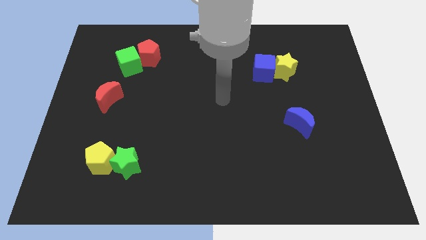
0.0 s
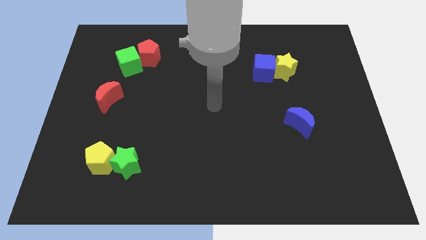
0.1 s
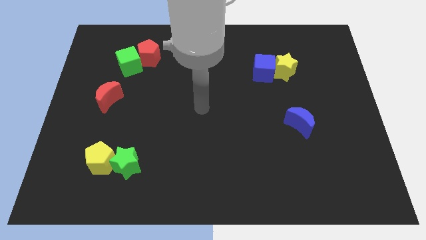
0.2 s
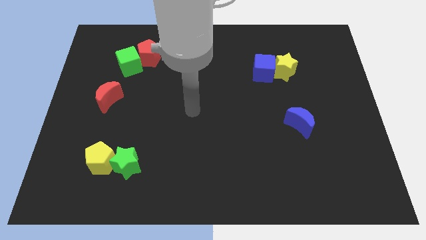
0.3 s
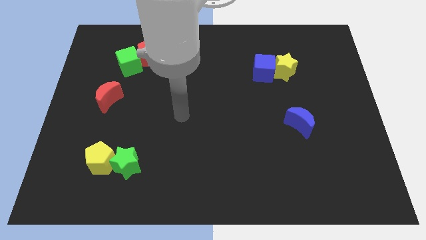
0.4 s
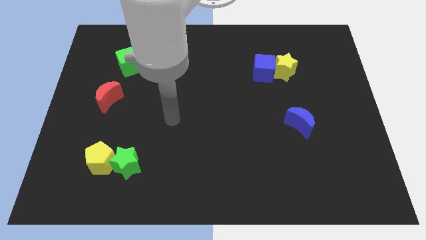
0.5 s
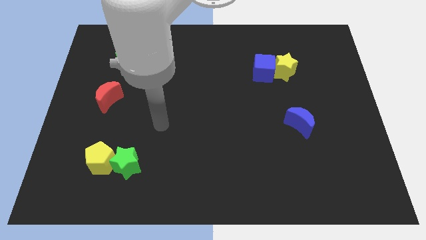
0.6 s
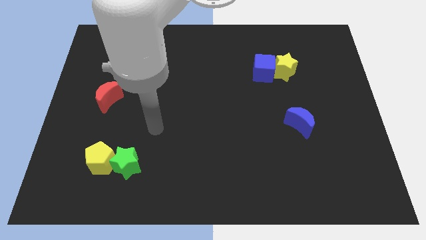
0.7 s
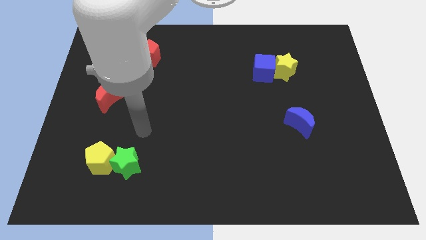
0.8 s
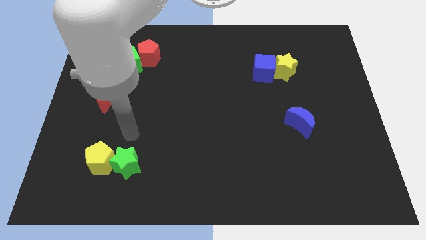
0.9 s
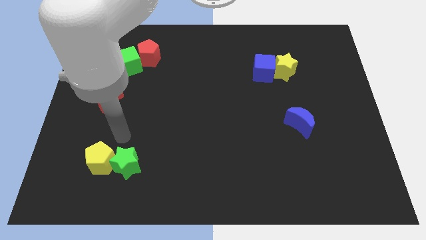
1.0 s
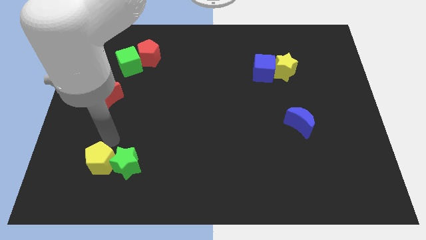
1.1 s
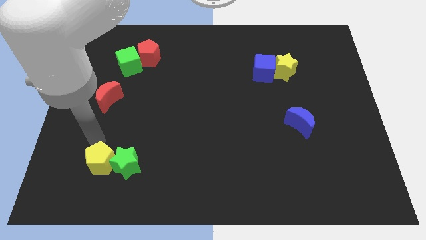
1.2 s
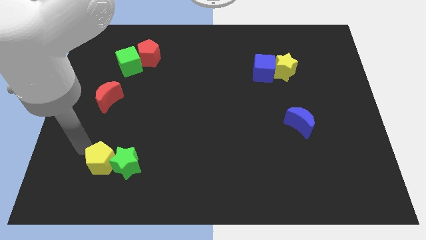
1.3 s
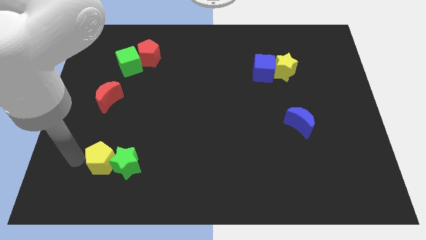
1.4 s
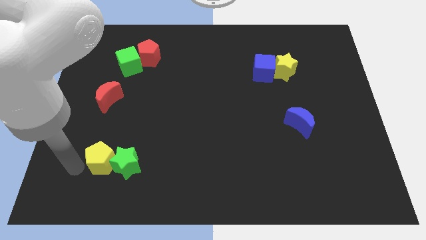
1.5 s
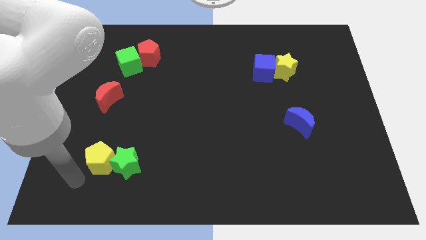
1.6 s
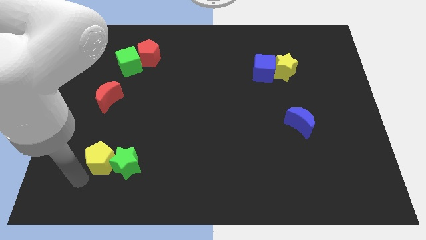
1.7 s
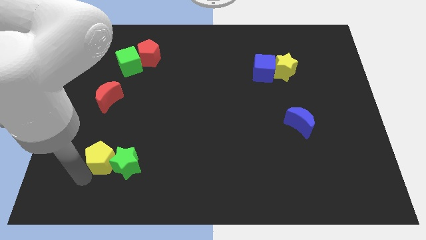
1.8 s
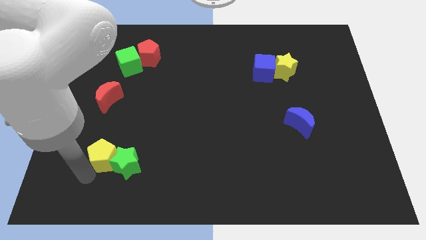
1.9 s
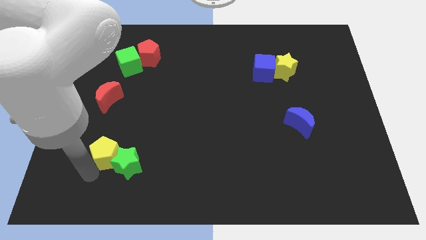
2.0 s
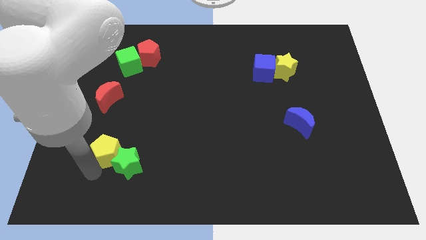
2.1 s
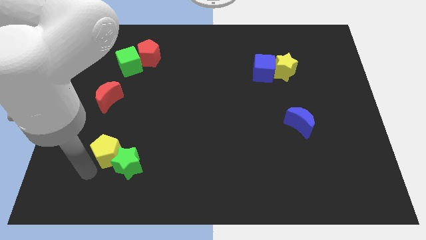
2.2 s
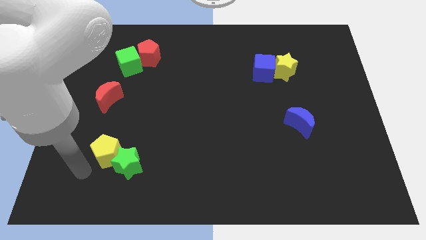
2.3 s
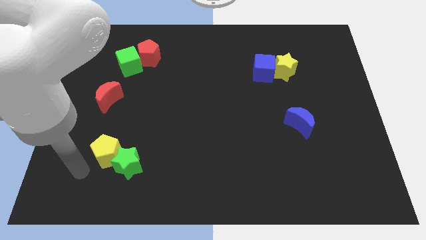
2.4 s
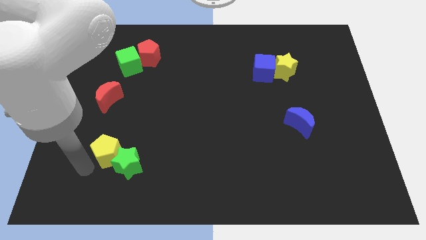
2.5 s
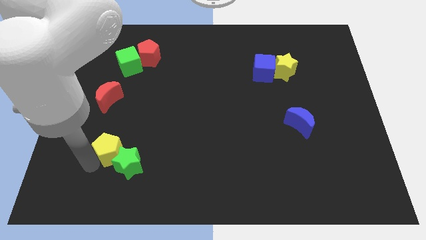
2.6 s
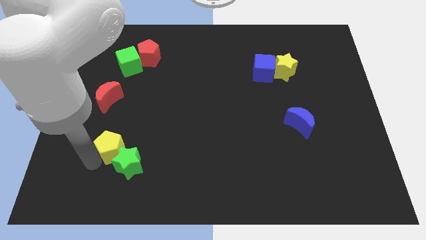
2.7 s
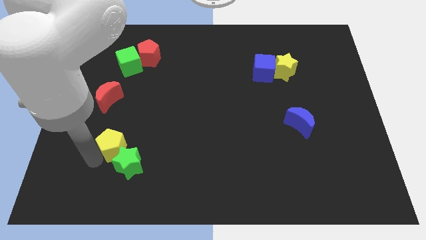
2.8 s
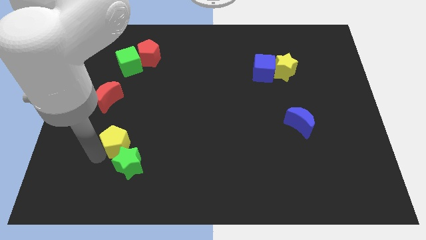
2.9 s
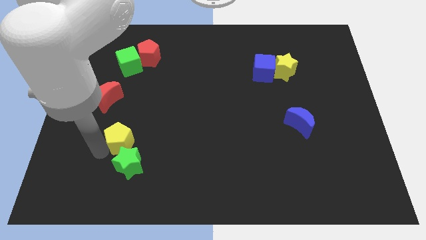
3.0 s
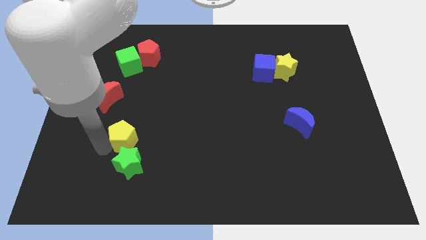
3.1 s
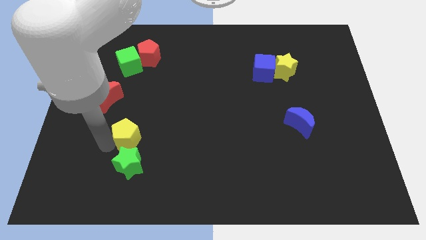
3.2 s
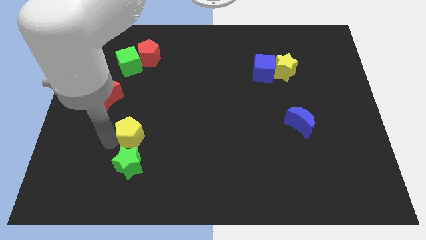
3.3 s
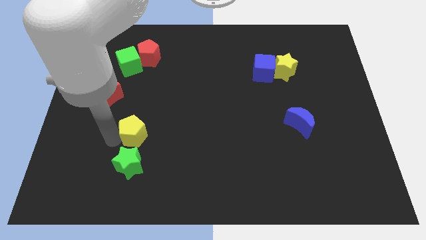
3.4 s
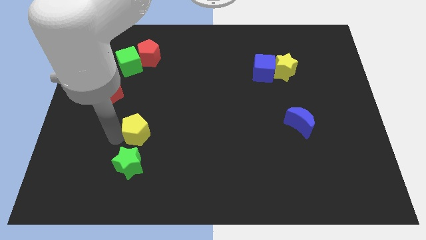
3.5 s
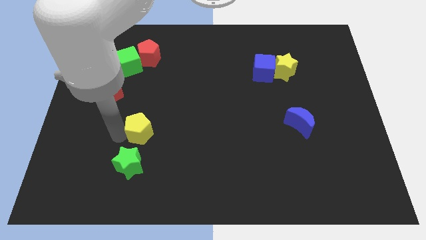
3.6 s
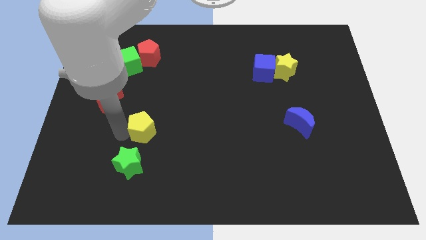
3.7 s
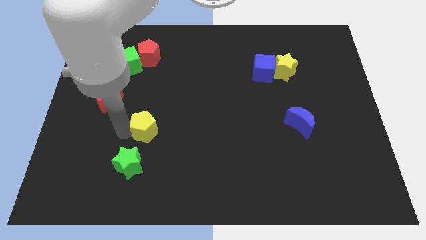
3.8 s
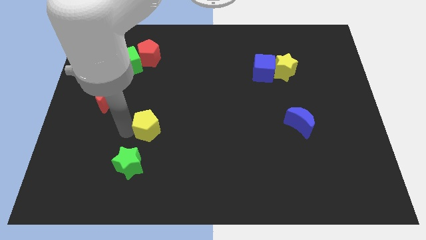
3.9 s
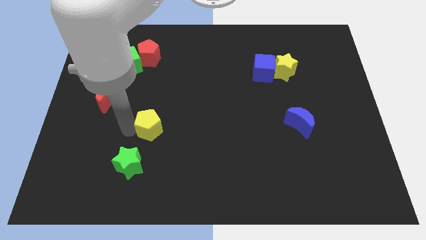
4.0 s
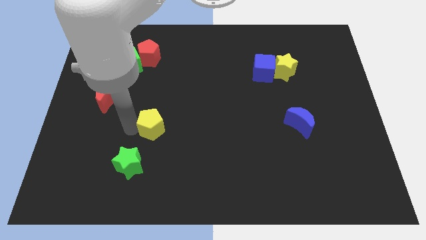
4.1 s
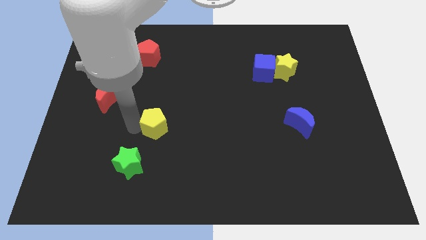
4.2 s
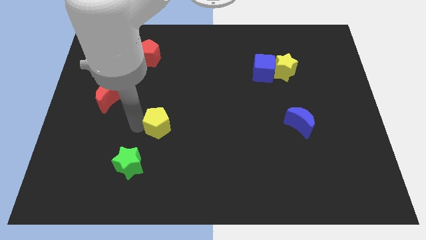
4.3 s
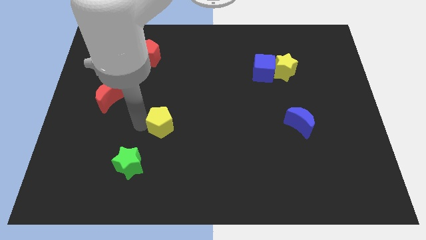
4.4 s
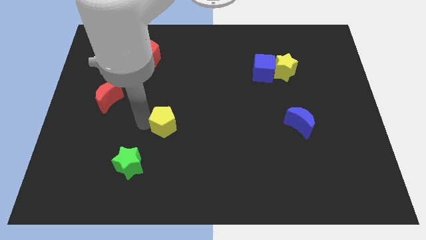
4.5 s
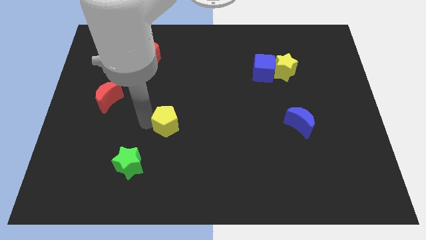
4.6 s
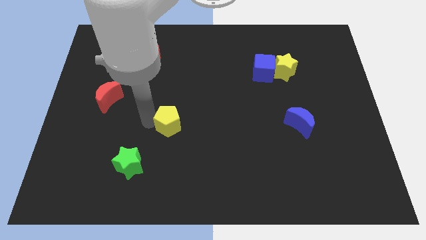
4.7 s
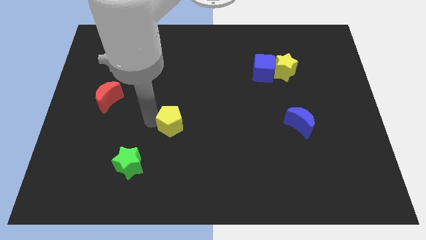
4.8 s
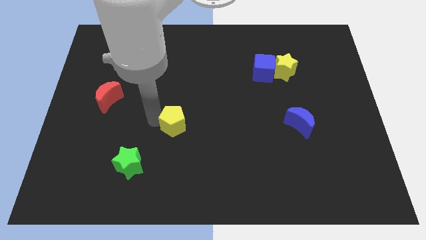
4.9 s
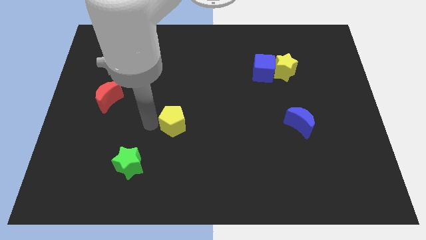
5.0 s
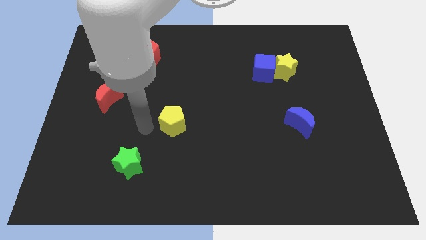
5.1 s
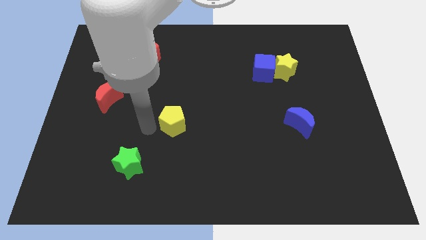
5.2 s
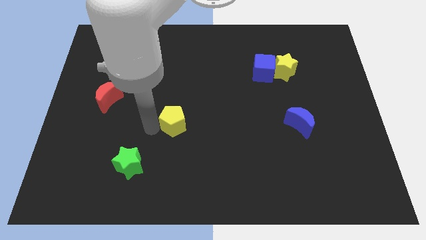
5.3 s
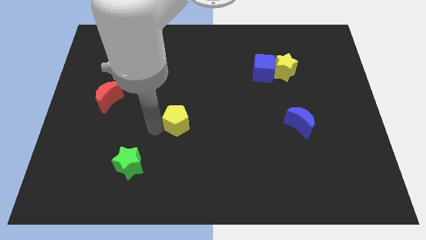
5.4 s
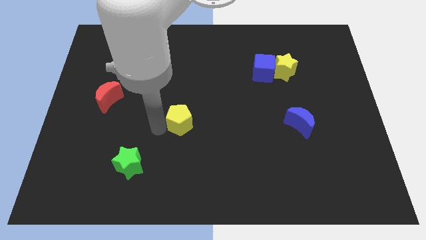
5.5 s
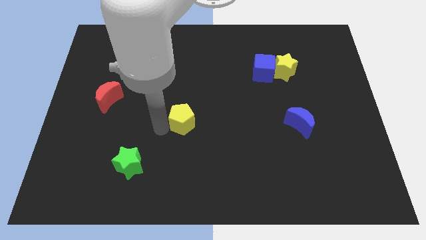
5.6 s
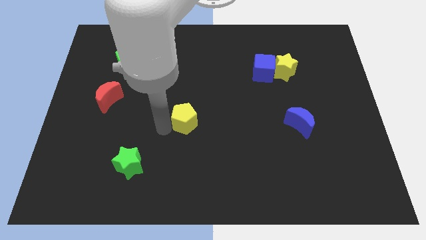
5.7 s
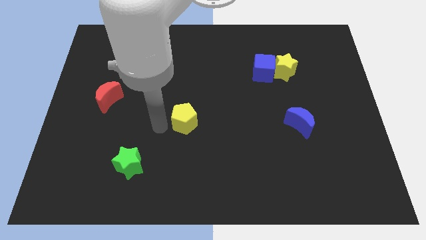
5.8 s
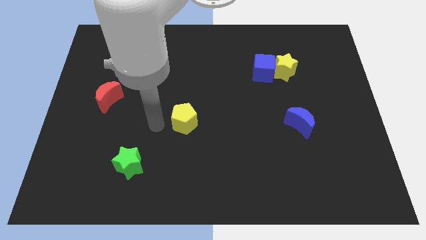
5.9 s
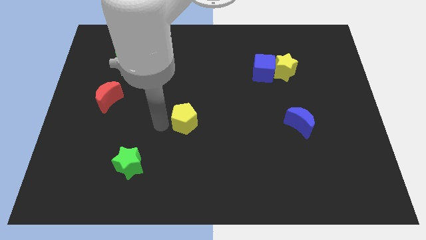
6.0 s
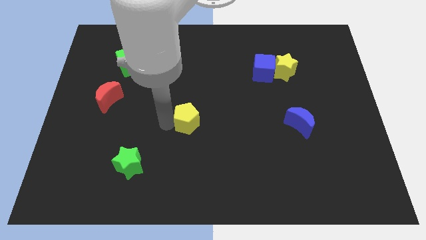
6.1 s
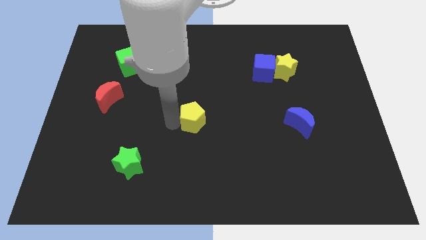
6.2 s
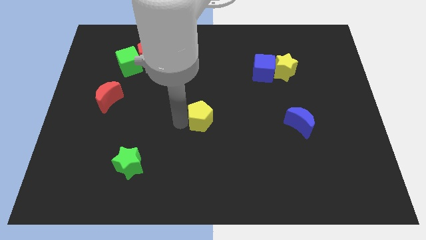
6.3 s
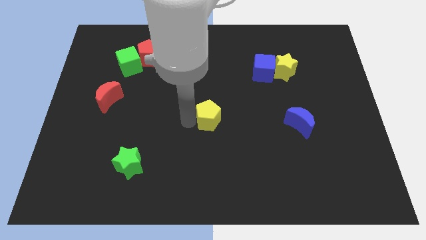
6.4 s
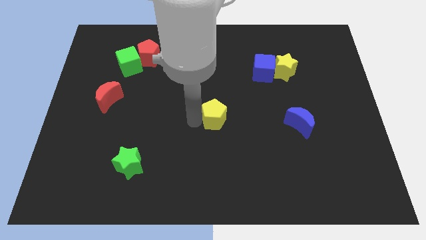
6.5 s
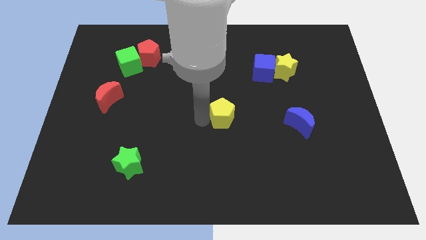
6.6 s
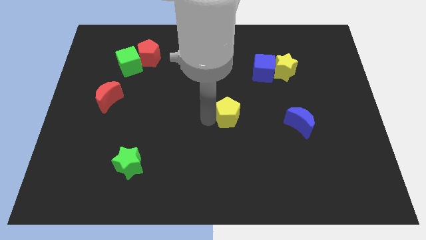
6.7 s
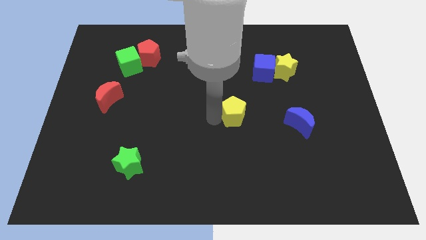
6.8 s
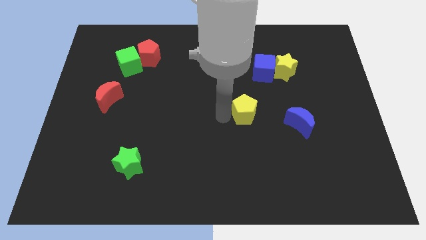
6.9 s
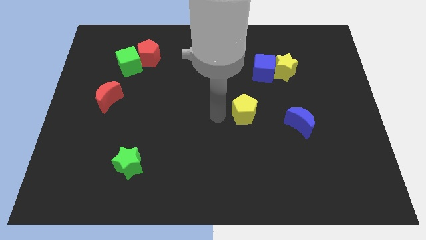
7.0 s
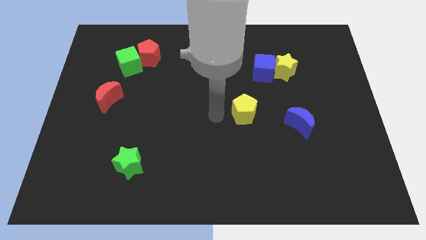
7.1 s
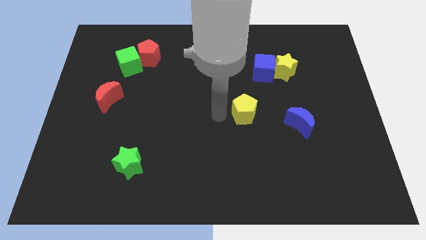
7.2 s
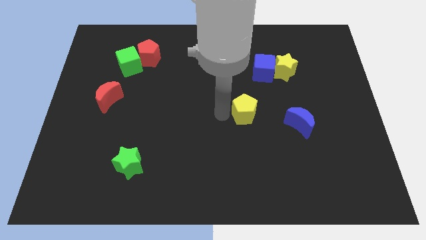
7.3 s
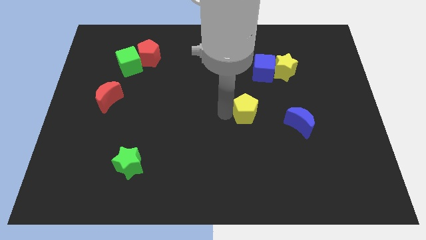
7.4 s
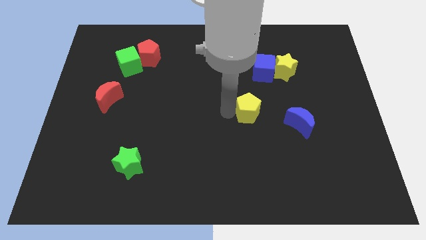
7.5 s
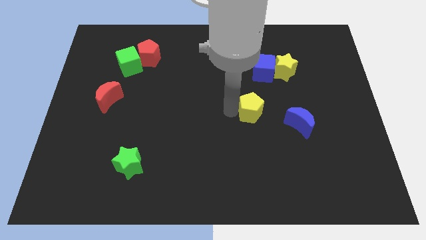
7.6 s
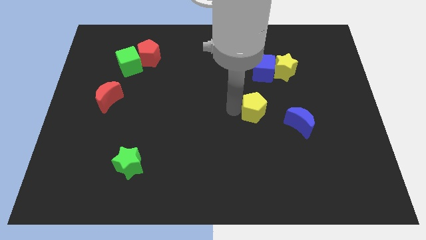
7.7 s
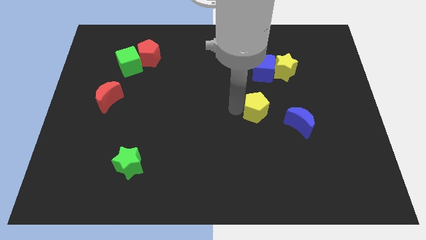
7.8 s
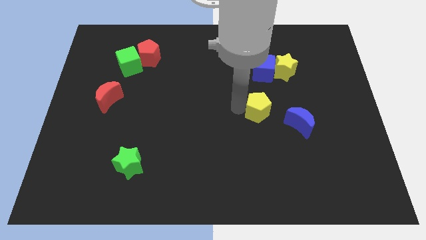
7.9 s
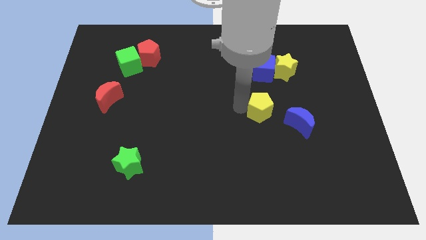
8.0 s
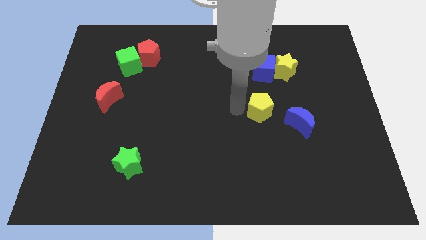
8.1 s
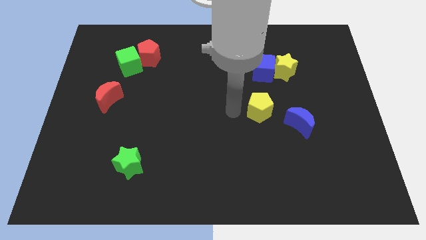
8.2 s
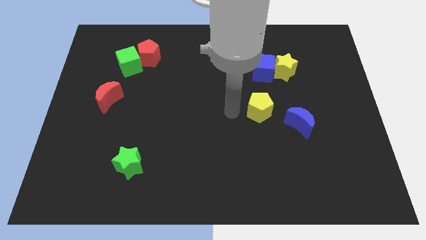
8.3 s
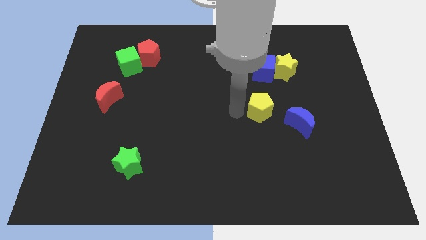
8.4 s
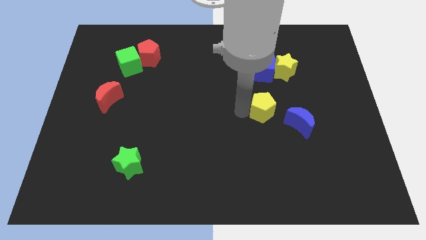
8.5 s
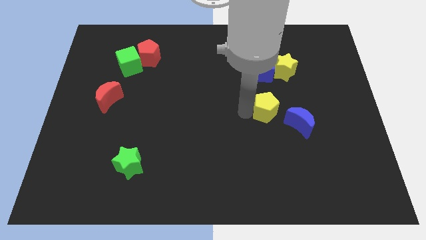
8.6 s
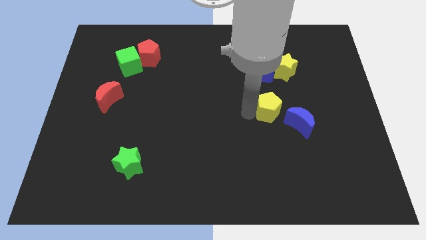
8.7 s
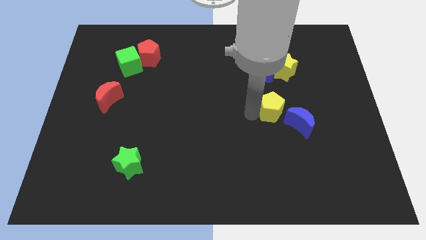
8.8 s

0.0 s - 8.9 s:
put the yellow pentagon below the yellow star
